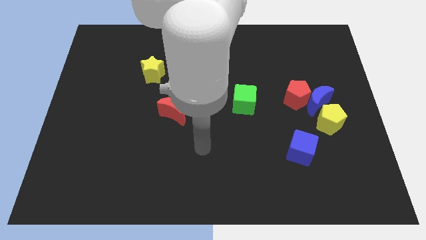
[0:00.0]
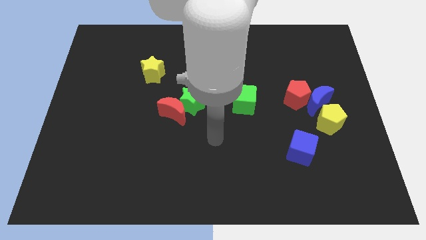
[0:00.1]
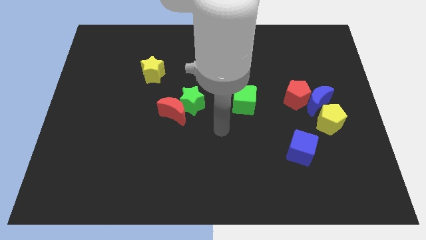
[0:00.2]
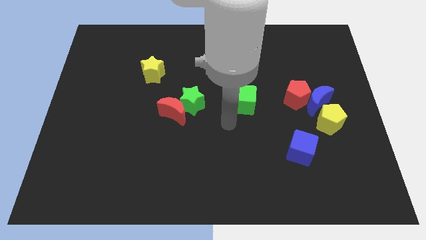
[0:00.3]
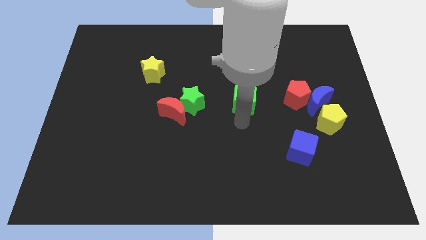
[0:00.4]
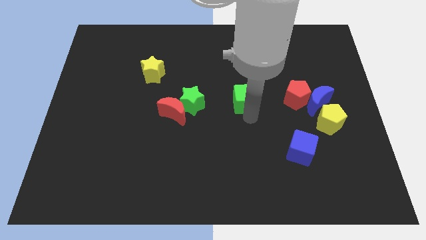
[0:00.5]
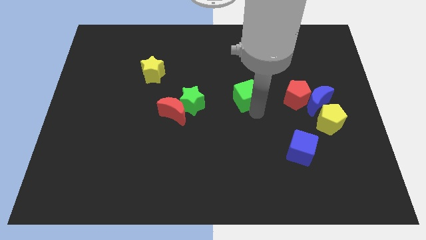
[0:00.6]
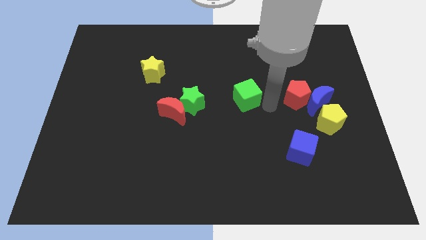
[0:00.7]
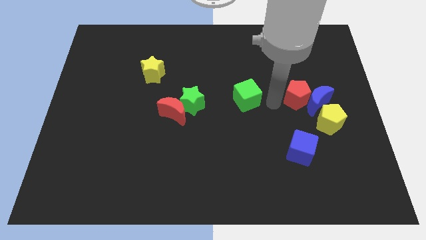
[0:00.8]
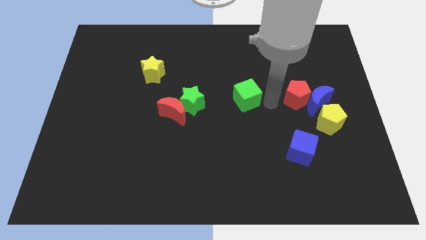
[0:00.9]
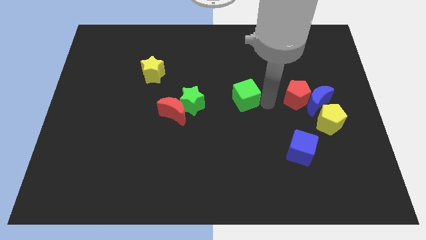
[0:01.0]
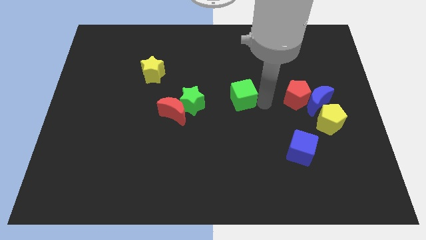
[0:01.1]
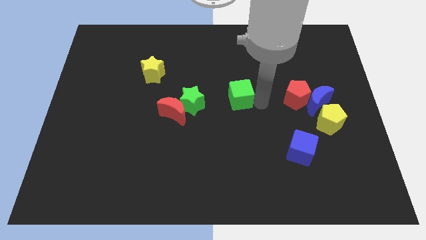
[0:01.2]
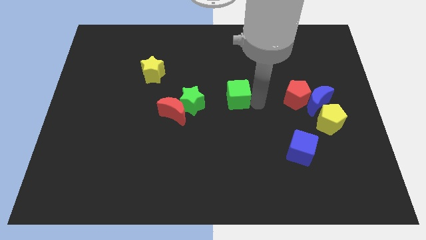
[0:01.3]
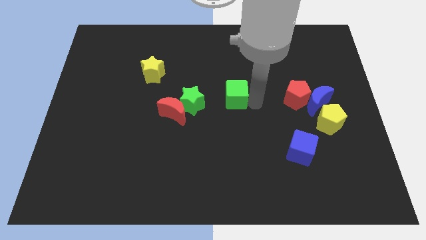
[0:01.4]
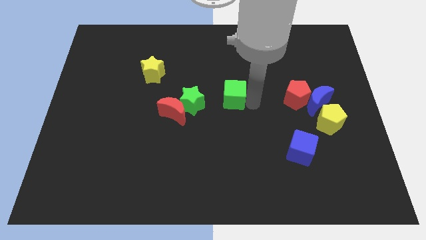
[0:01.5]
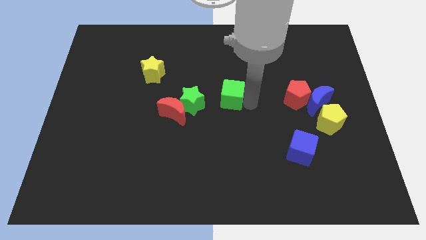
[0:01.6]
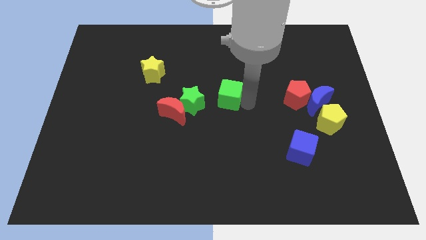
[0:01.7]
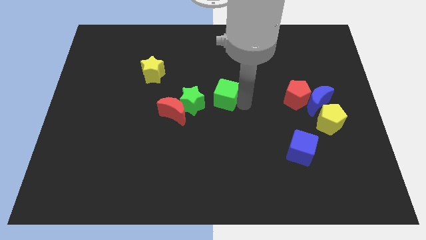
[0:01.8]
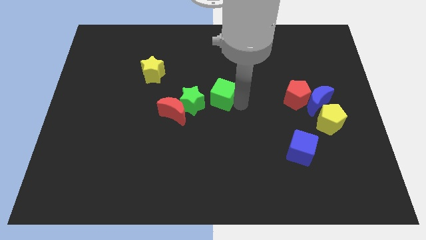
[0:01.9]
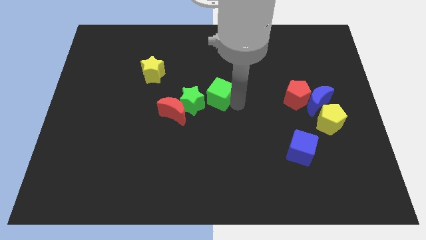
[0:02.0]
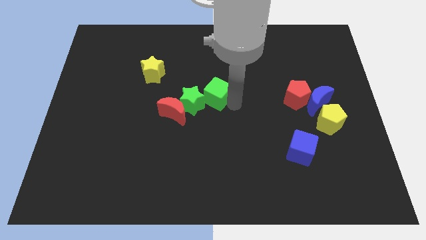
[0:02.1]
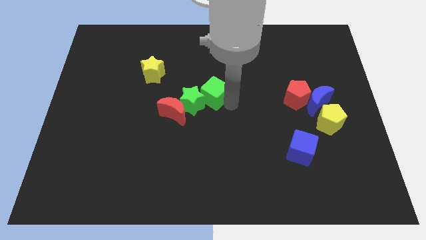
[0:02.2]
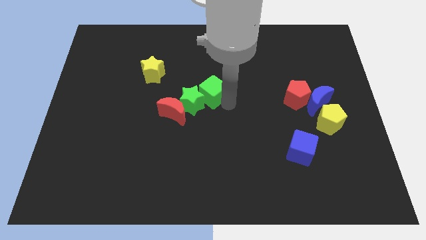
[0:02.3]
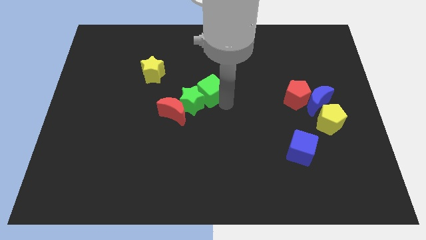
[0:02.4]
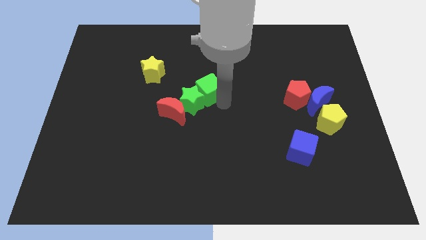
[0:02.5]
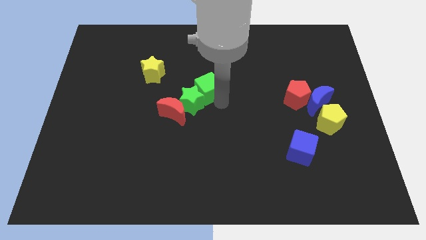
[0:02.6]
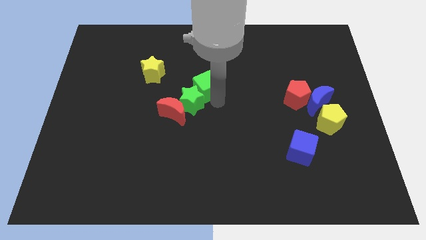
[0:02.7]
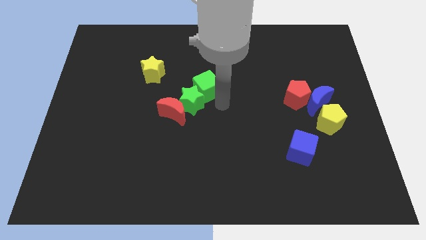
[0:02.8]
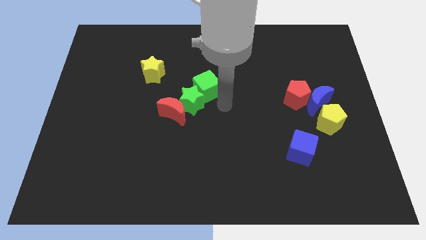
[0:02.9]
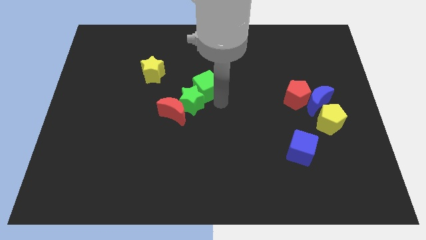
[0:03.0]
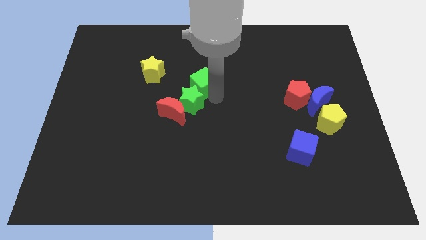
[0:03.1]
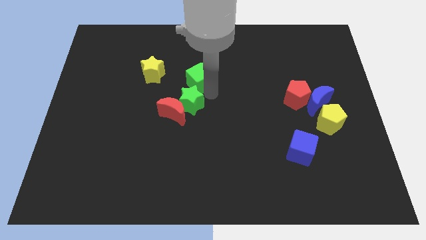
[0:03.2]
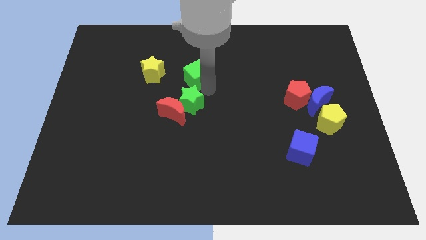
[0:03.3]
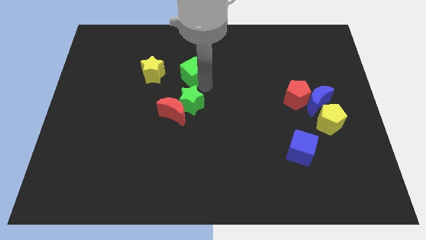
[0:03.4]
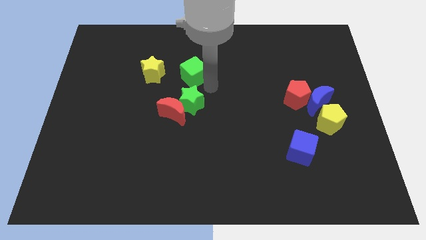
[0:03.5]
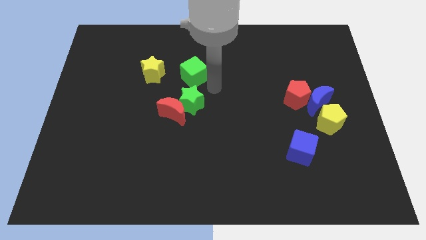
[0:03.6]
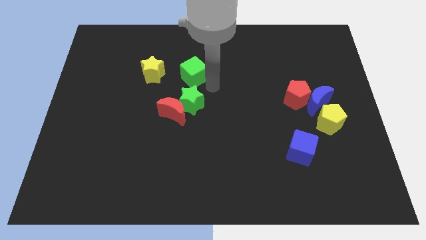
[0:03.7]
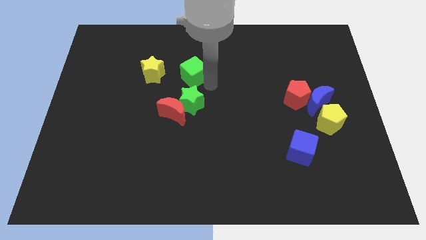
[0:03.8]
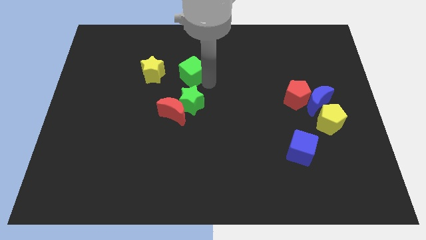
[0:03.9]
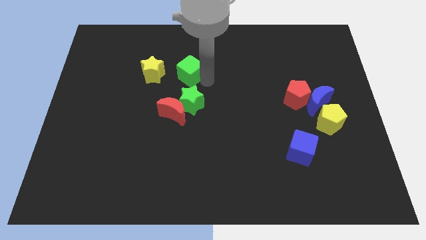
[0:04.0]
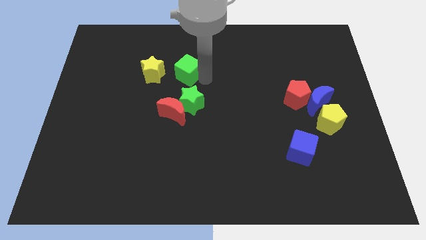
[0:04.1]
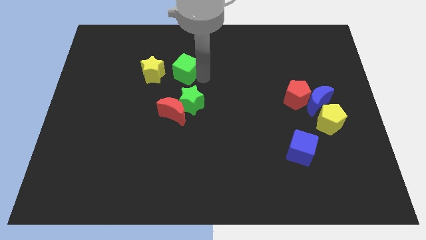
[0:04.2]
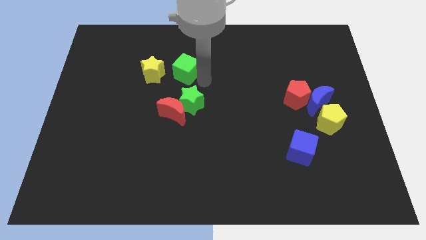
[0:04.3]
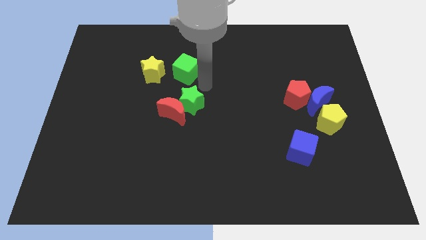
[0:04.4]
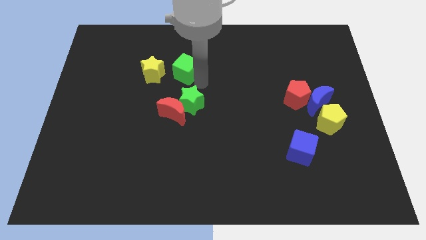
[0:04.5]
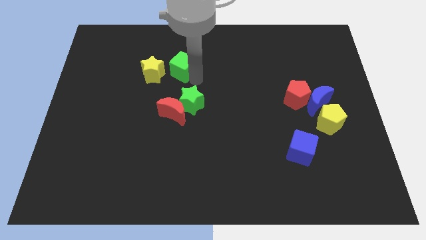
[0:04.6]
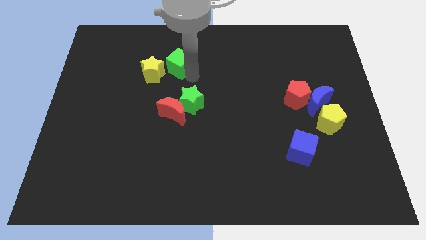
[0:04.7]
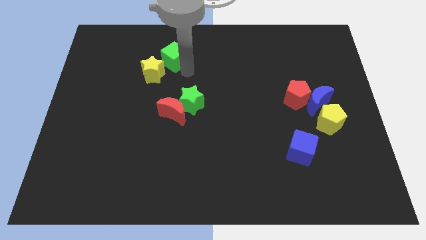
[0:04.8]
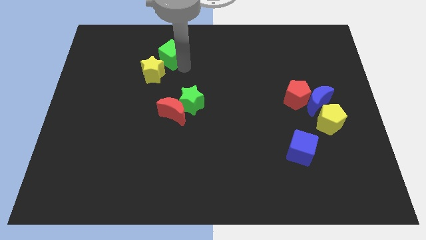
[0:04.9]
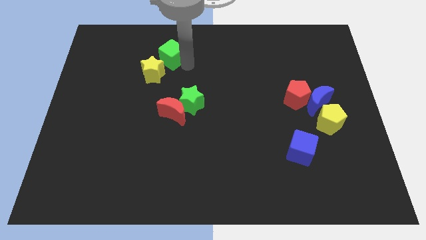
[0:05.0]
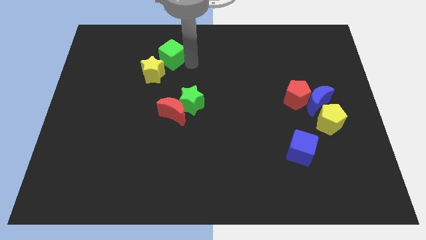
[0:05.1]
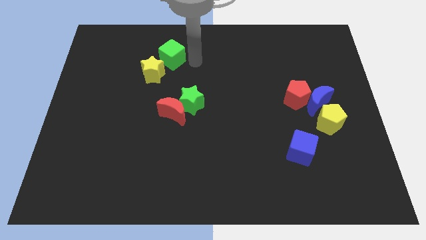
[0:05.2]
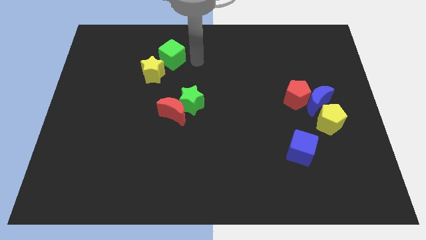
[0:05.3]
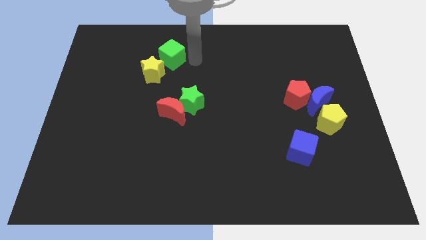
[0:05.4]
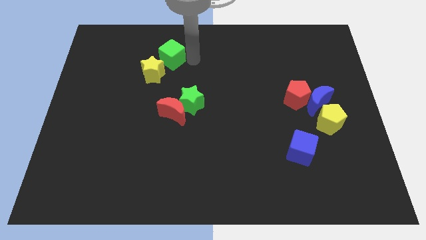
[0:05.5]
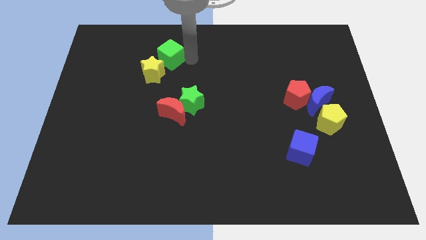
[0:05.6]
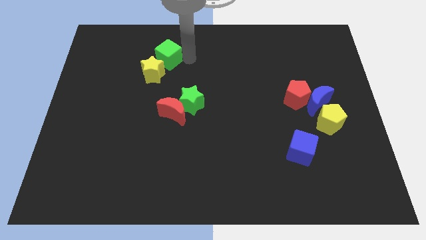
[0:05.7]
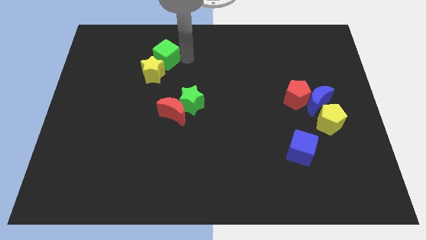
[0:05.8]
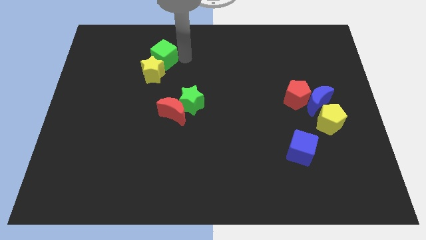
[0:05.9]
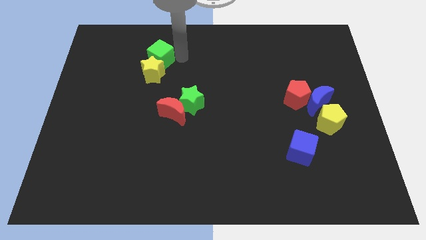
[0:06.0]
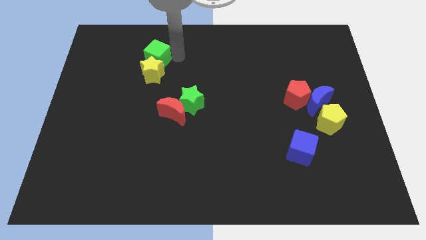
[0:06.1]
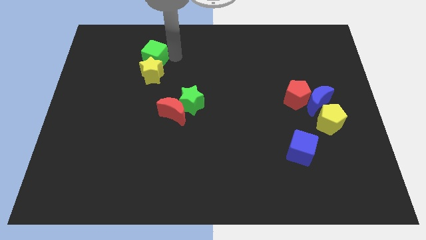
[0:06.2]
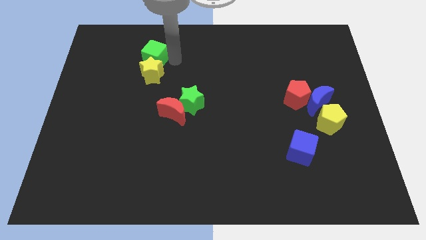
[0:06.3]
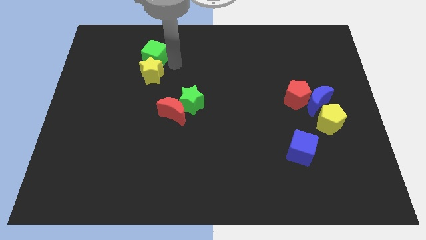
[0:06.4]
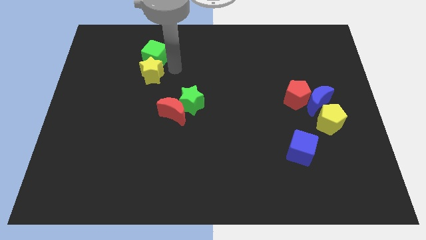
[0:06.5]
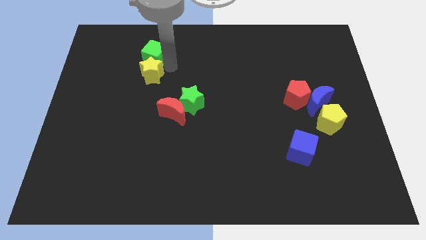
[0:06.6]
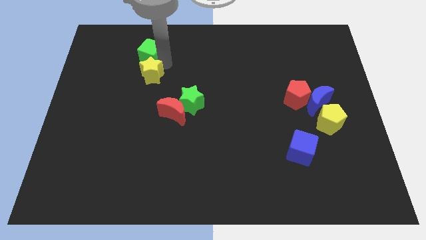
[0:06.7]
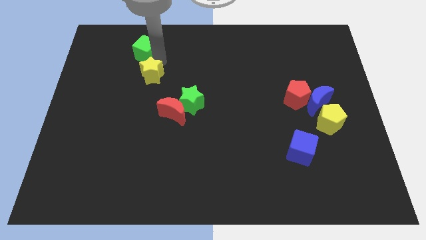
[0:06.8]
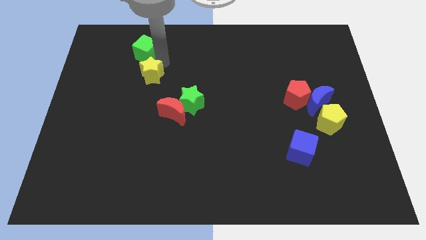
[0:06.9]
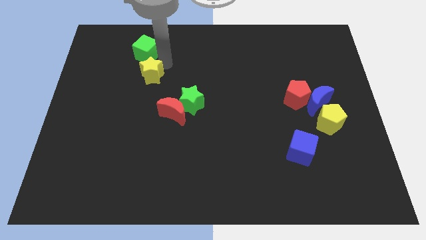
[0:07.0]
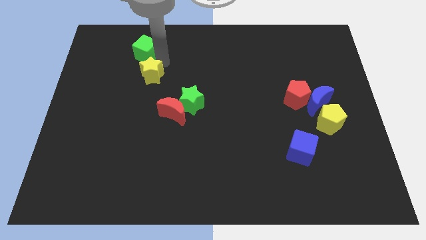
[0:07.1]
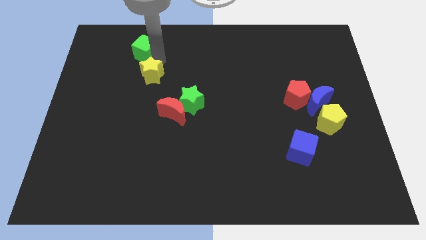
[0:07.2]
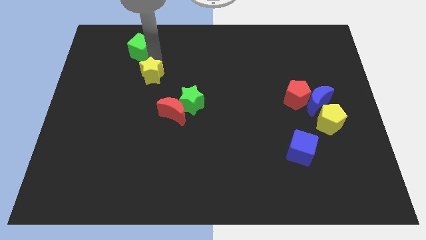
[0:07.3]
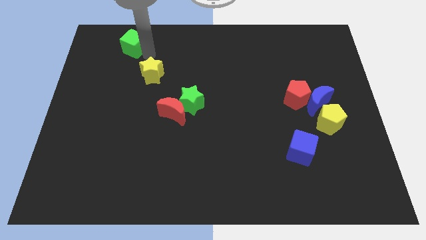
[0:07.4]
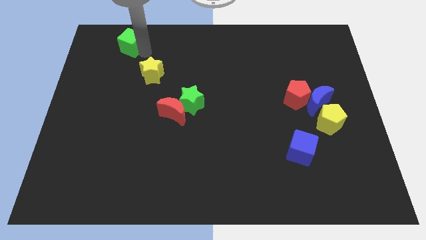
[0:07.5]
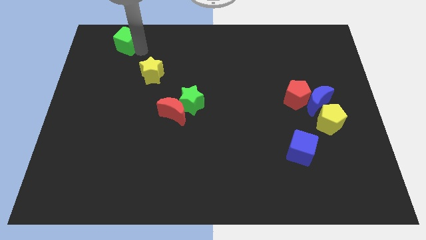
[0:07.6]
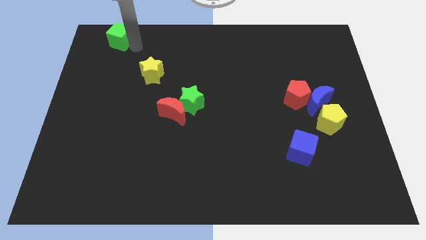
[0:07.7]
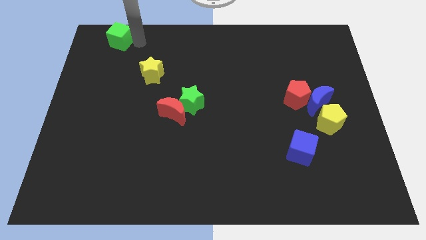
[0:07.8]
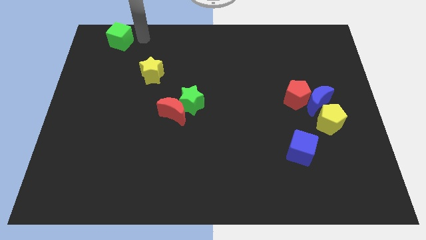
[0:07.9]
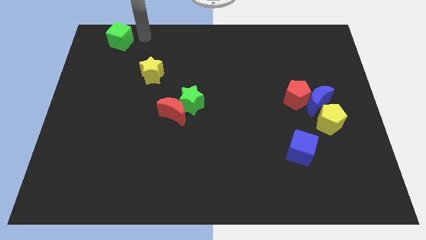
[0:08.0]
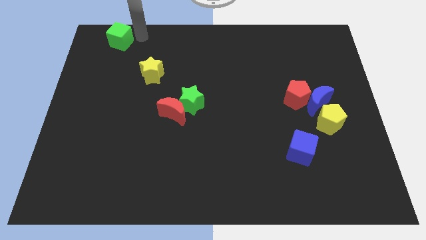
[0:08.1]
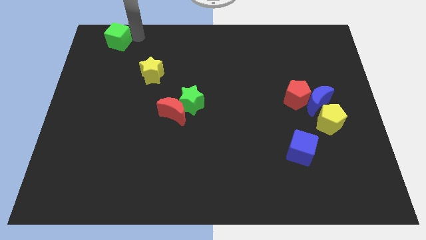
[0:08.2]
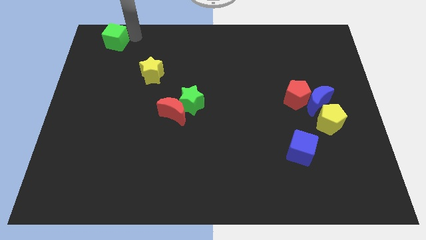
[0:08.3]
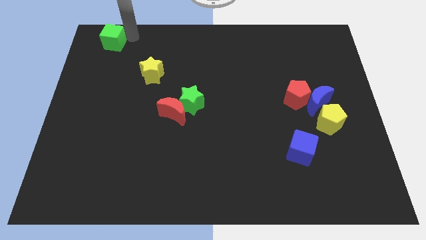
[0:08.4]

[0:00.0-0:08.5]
slide the green cube to the top left of the board
